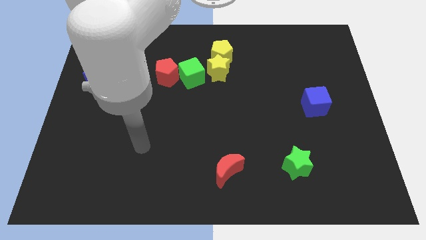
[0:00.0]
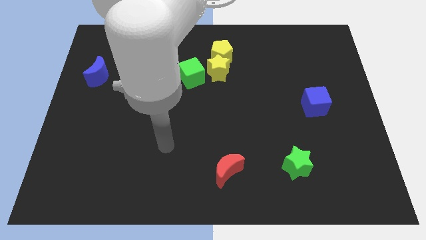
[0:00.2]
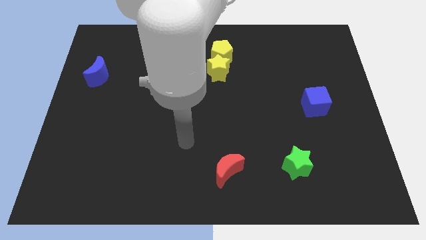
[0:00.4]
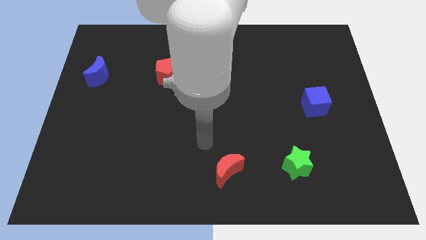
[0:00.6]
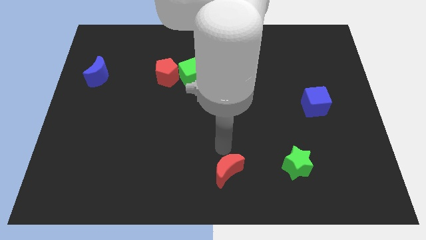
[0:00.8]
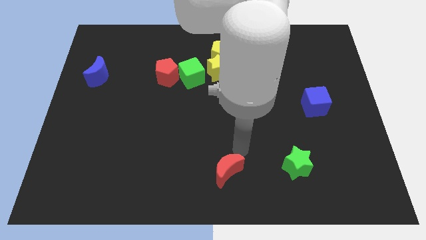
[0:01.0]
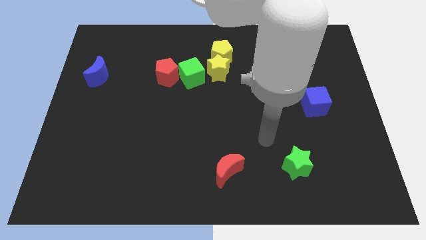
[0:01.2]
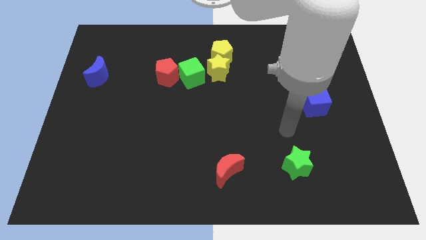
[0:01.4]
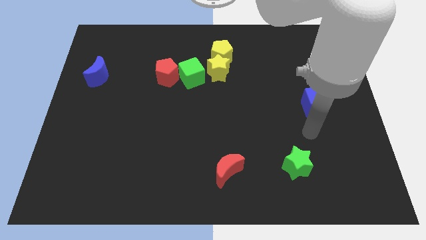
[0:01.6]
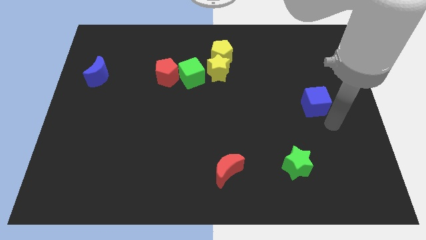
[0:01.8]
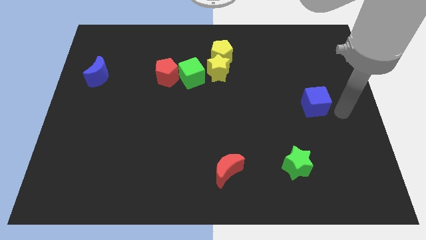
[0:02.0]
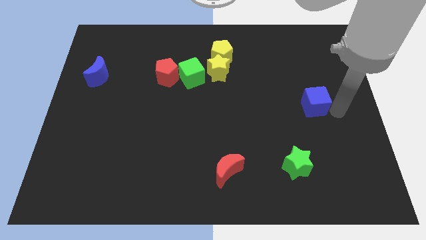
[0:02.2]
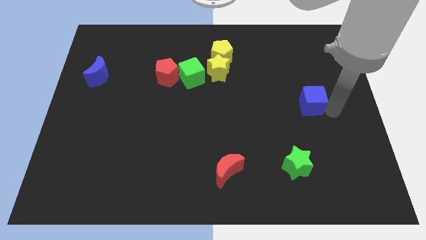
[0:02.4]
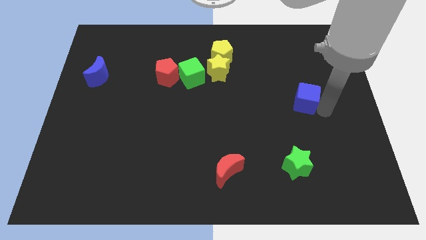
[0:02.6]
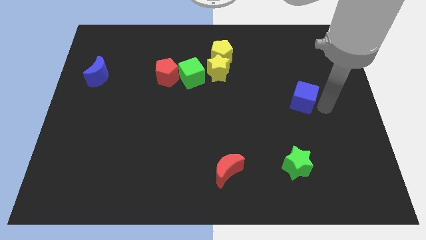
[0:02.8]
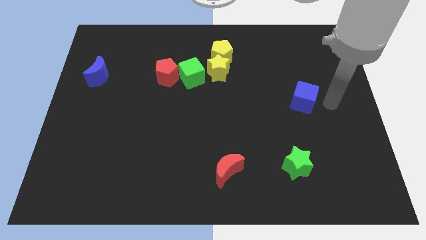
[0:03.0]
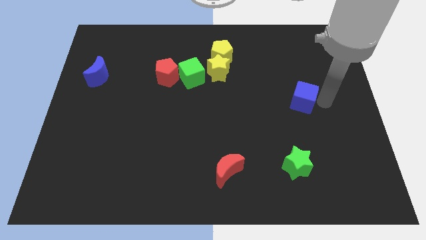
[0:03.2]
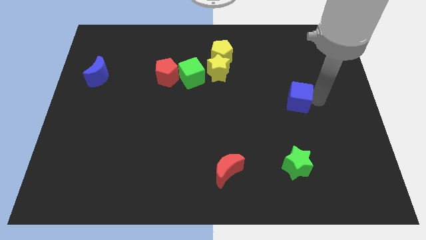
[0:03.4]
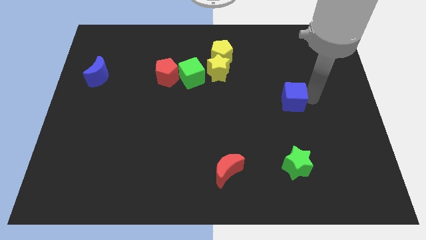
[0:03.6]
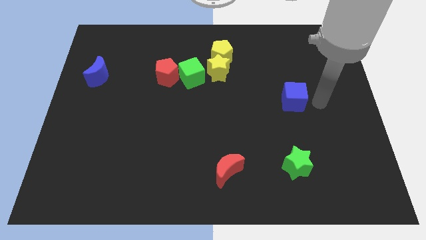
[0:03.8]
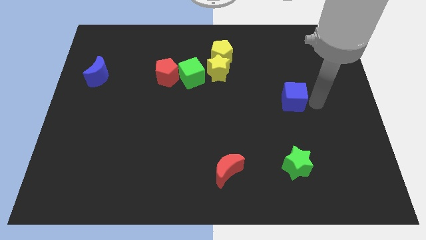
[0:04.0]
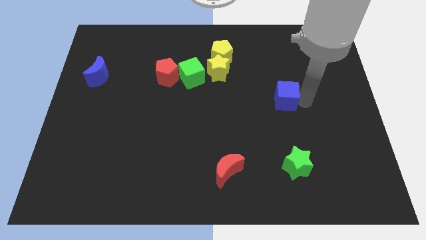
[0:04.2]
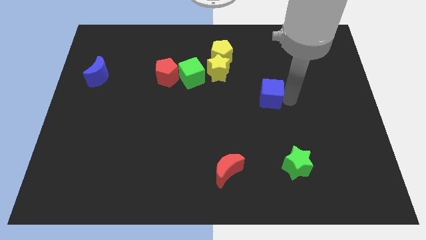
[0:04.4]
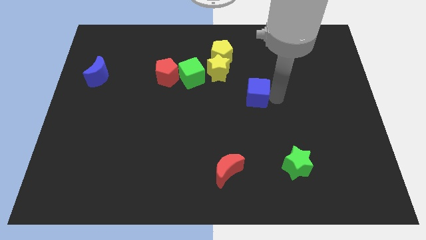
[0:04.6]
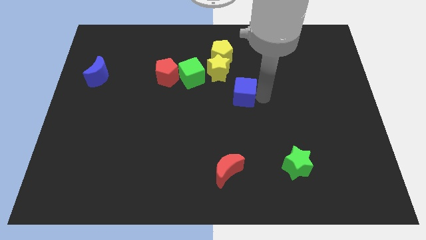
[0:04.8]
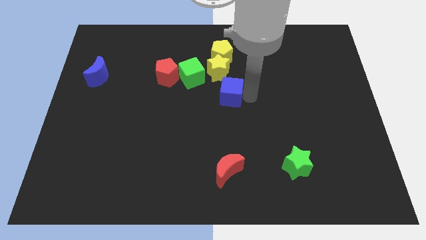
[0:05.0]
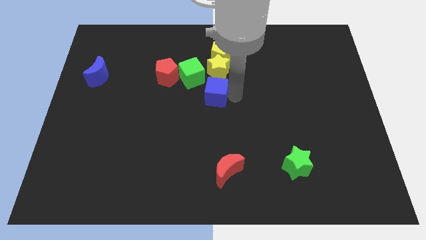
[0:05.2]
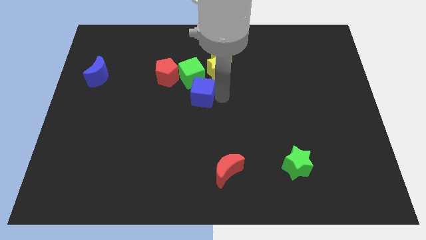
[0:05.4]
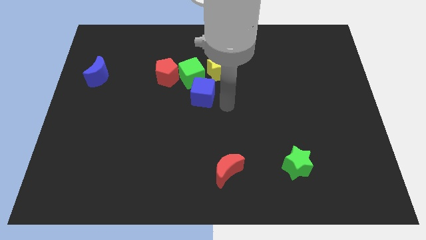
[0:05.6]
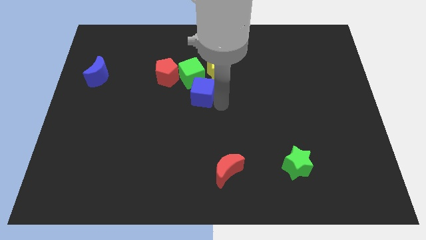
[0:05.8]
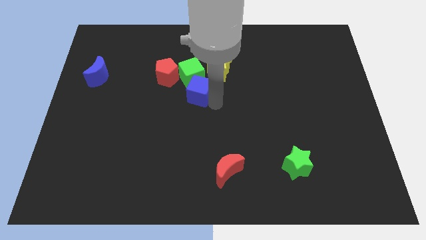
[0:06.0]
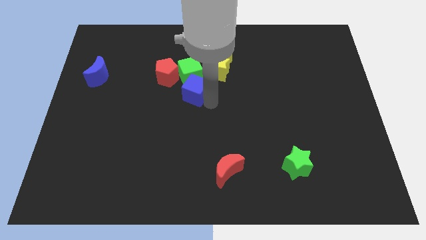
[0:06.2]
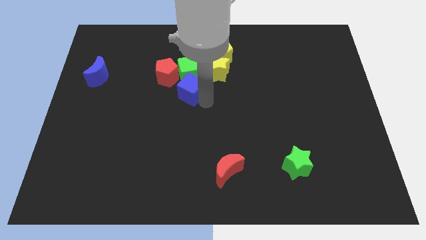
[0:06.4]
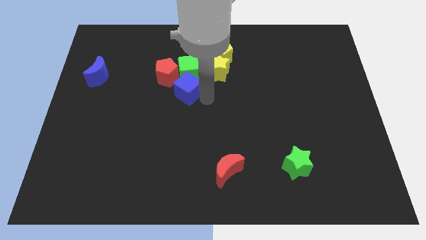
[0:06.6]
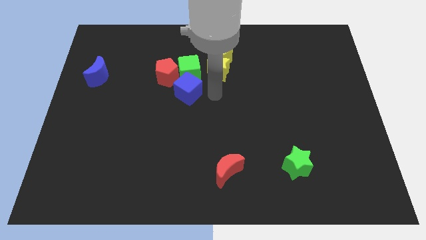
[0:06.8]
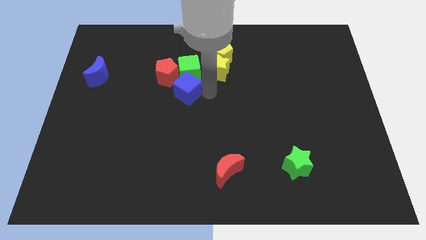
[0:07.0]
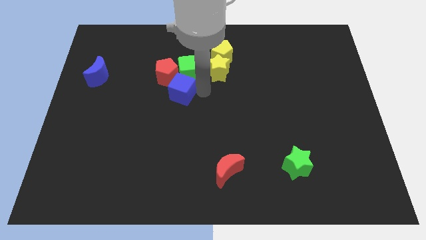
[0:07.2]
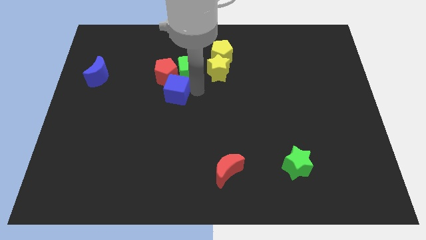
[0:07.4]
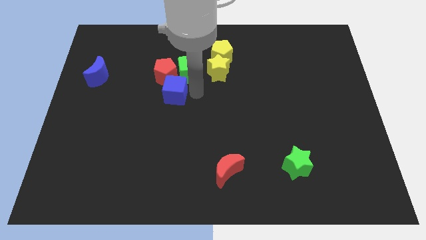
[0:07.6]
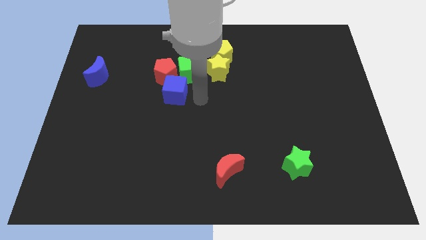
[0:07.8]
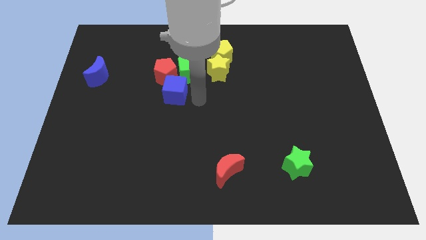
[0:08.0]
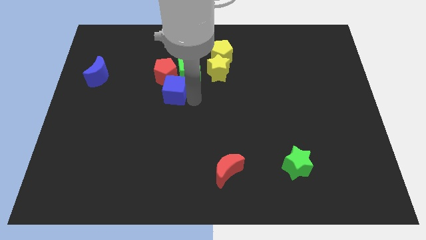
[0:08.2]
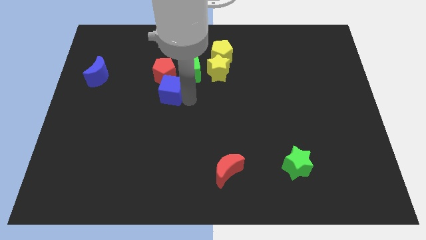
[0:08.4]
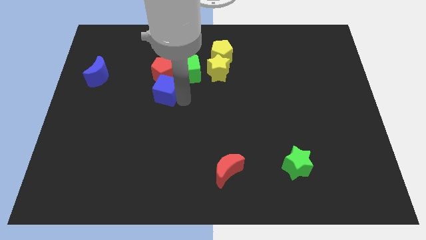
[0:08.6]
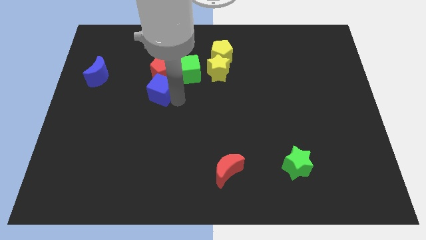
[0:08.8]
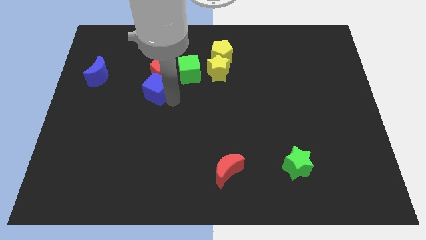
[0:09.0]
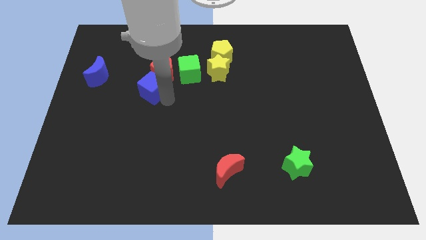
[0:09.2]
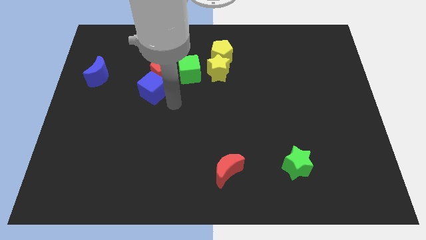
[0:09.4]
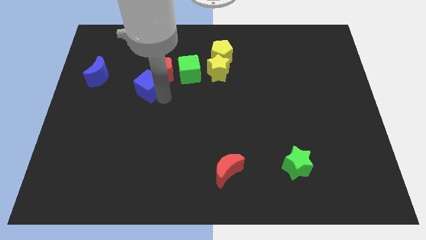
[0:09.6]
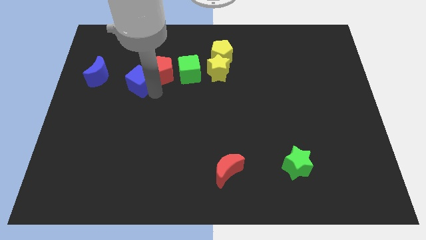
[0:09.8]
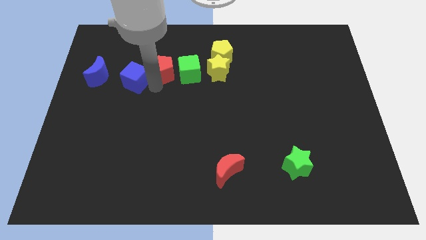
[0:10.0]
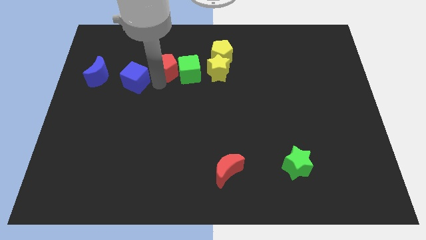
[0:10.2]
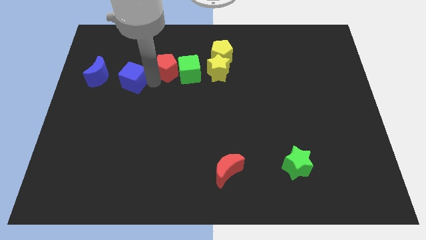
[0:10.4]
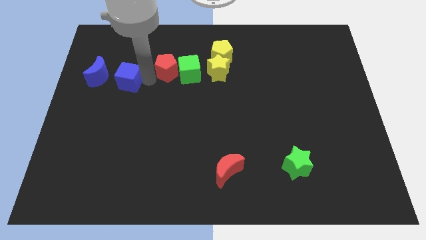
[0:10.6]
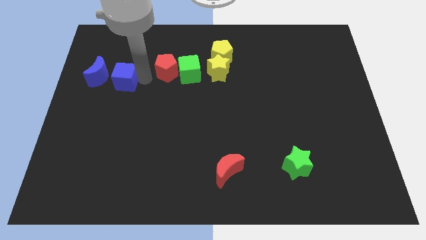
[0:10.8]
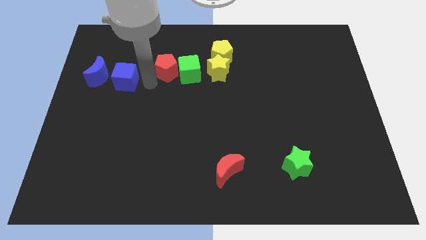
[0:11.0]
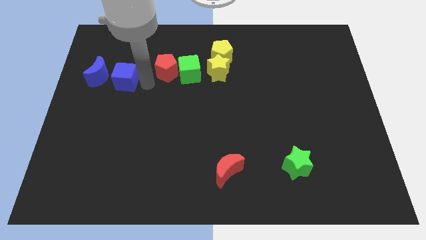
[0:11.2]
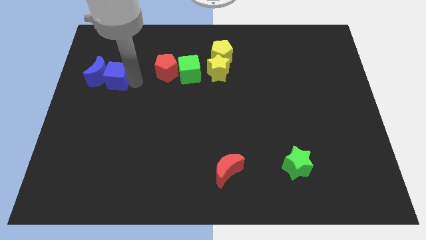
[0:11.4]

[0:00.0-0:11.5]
move the blue cube towards the blue moon

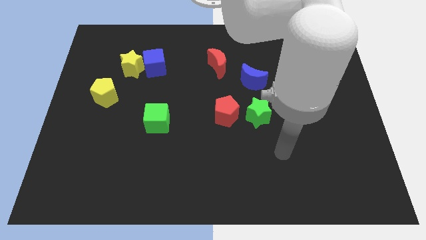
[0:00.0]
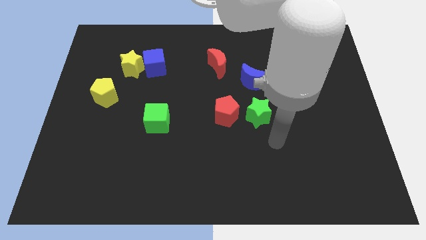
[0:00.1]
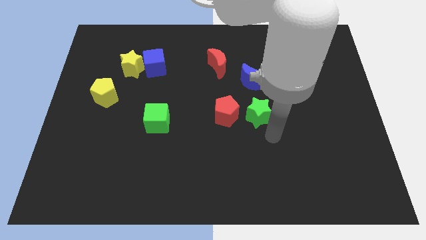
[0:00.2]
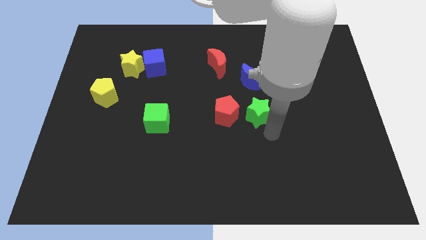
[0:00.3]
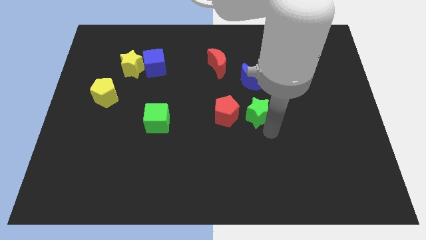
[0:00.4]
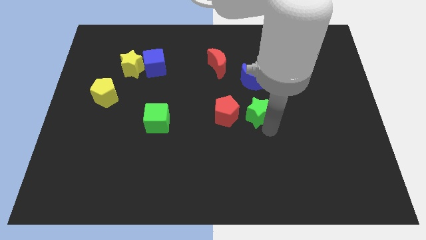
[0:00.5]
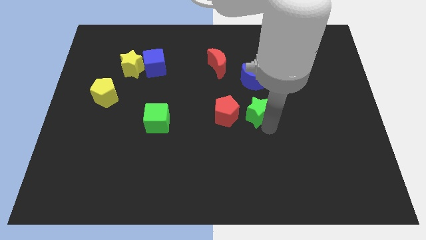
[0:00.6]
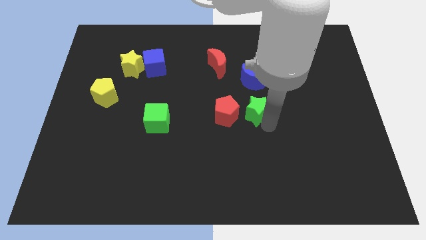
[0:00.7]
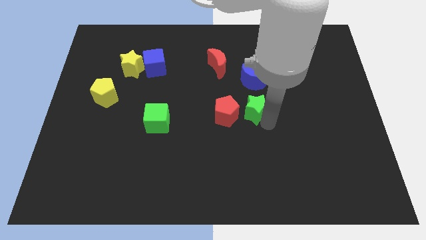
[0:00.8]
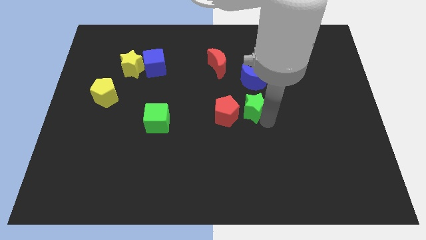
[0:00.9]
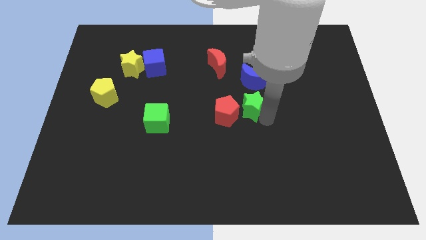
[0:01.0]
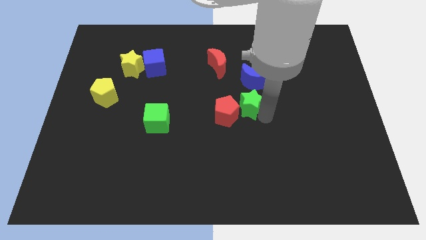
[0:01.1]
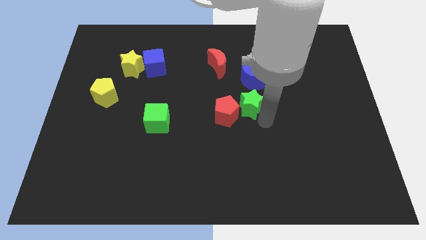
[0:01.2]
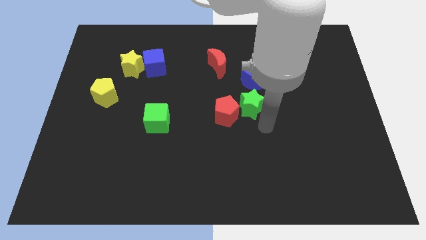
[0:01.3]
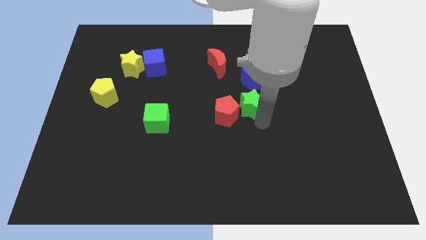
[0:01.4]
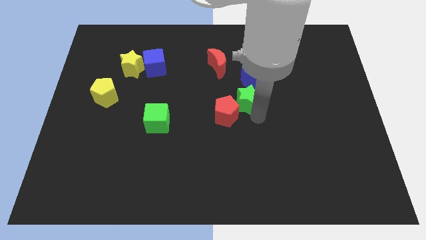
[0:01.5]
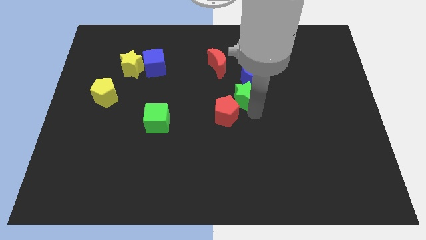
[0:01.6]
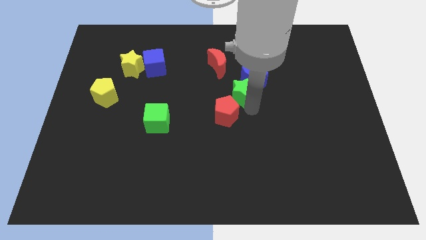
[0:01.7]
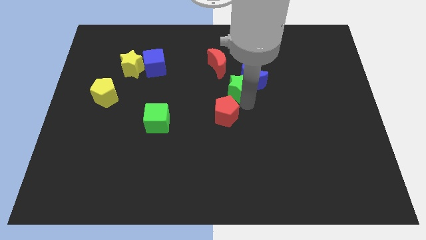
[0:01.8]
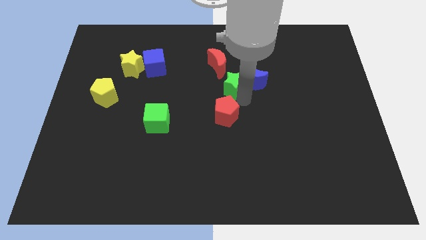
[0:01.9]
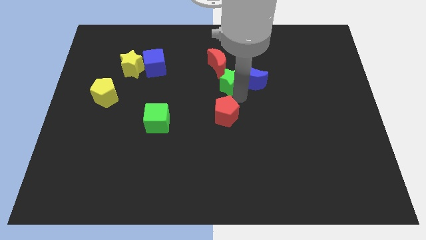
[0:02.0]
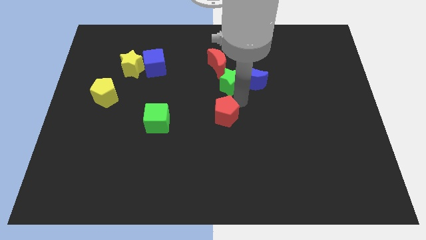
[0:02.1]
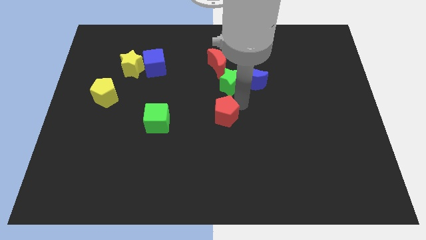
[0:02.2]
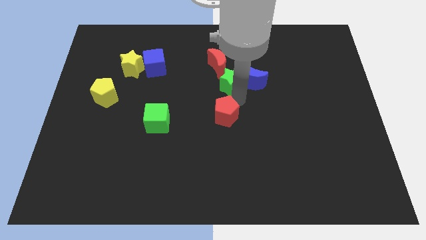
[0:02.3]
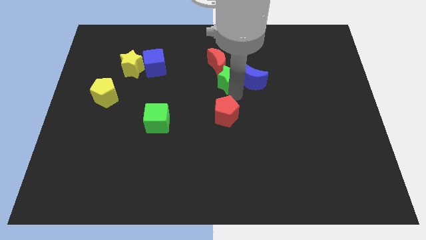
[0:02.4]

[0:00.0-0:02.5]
put the green star close to the red moon
